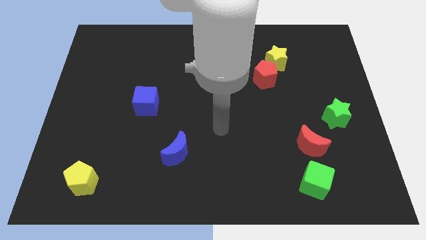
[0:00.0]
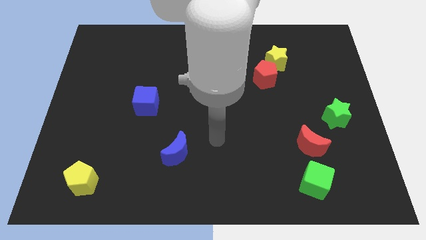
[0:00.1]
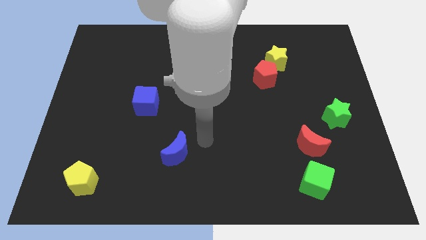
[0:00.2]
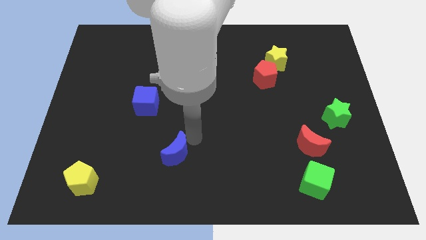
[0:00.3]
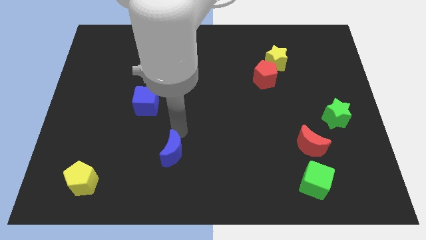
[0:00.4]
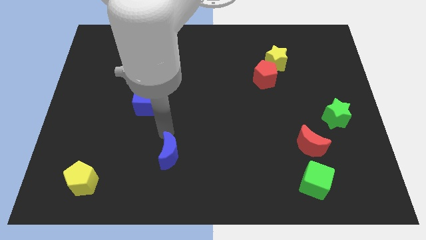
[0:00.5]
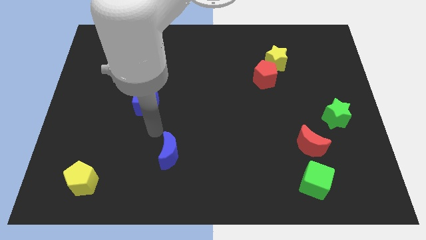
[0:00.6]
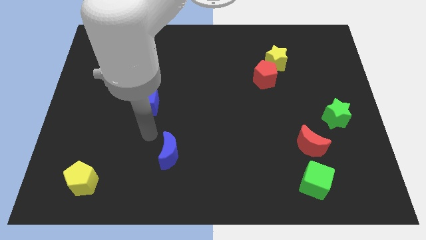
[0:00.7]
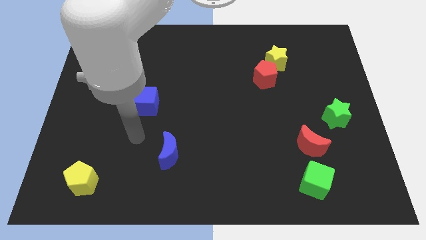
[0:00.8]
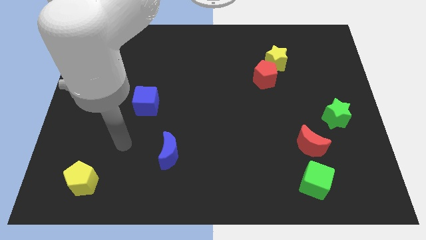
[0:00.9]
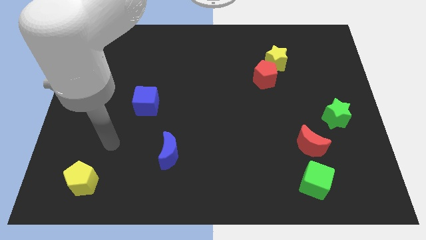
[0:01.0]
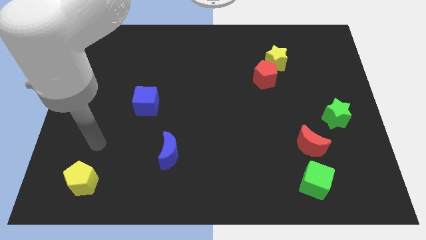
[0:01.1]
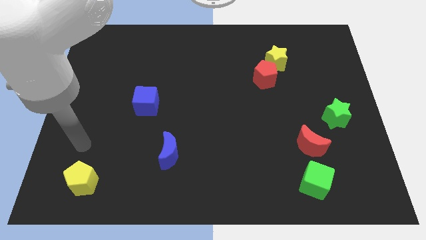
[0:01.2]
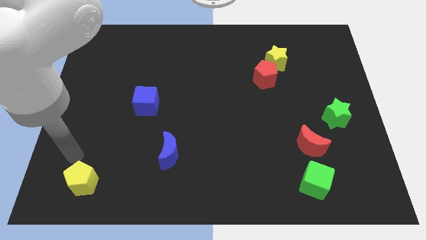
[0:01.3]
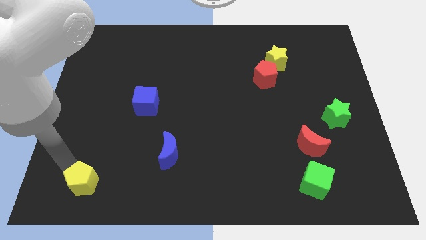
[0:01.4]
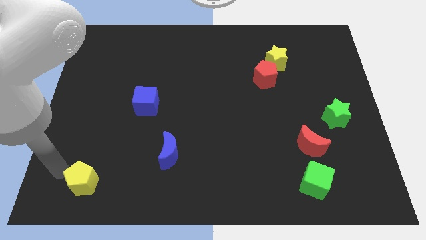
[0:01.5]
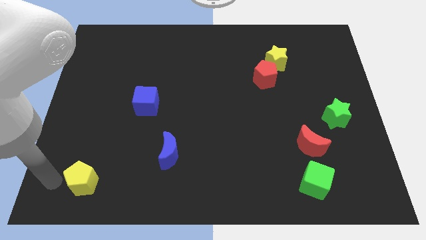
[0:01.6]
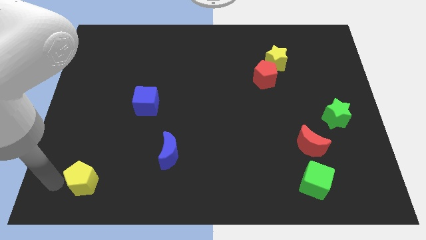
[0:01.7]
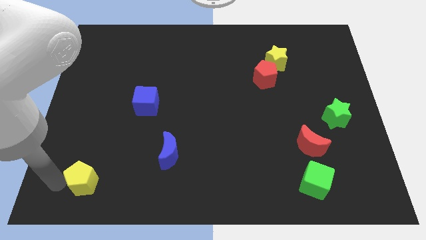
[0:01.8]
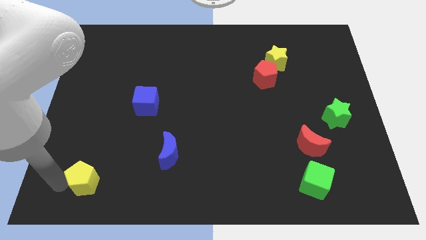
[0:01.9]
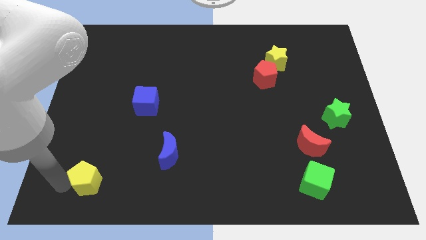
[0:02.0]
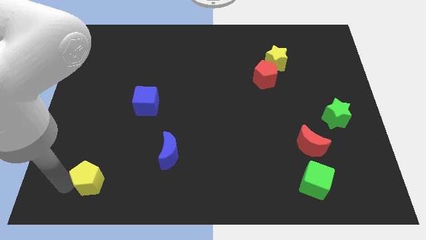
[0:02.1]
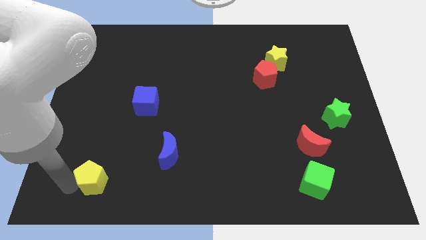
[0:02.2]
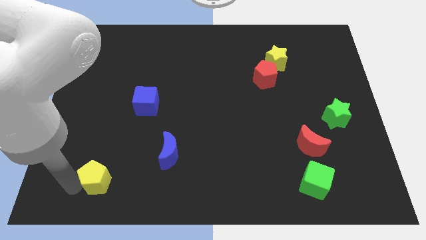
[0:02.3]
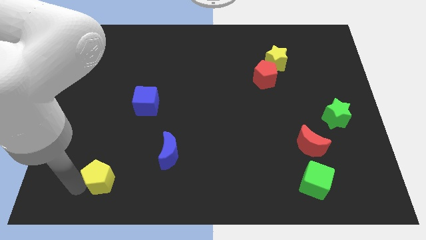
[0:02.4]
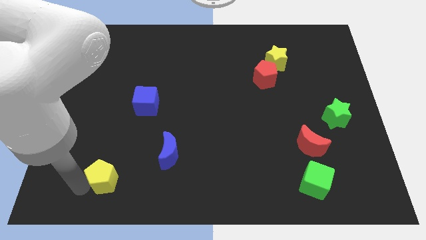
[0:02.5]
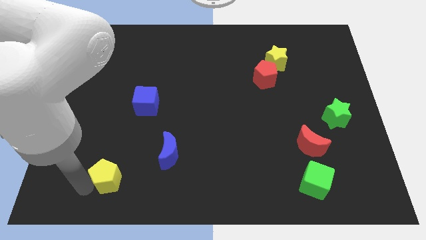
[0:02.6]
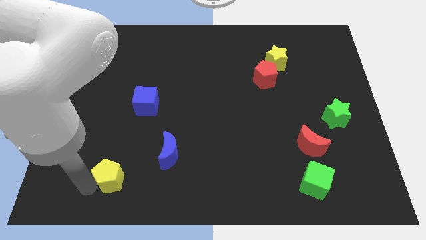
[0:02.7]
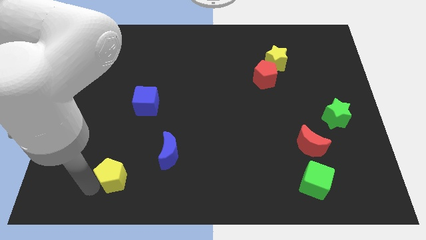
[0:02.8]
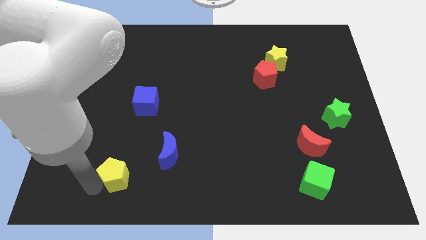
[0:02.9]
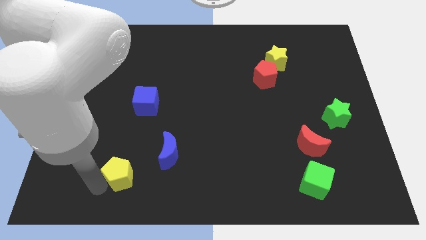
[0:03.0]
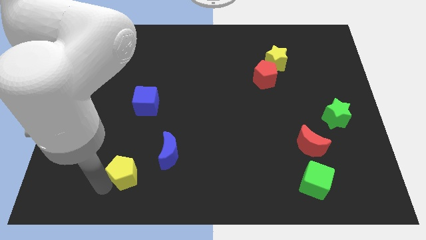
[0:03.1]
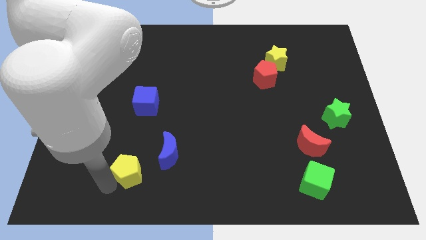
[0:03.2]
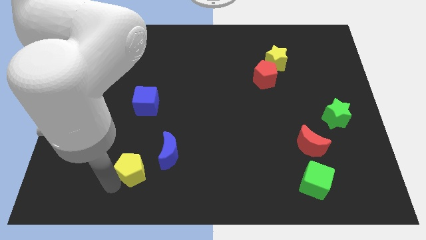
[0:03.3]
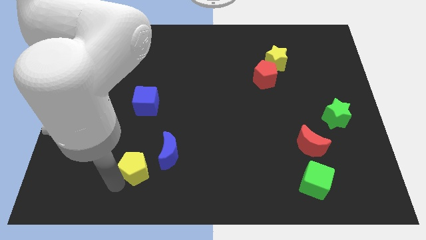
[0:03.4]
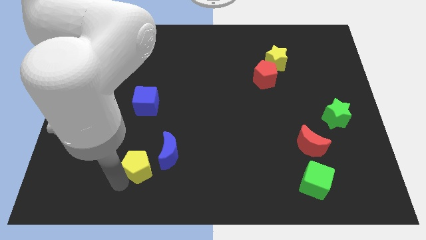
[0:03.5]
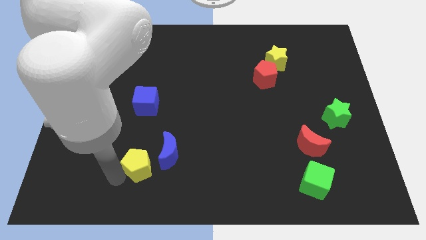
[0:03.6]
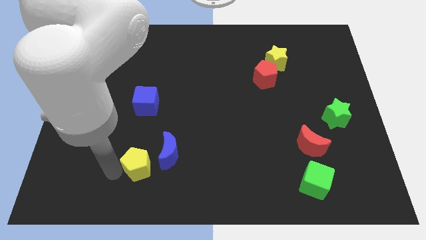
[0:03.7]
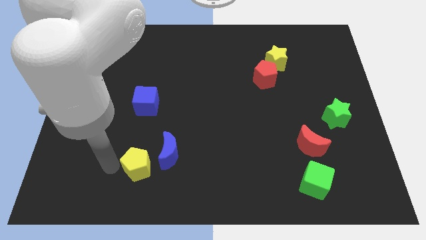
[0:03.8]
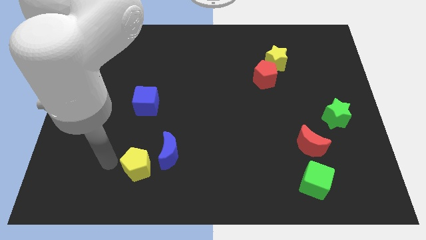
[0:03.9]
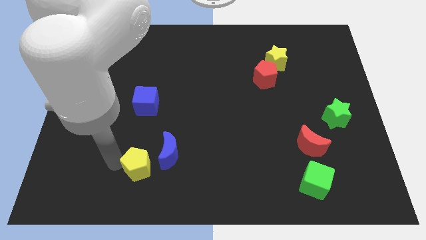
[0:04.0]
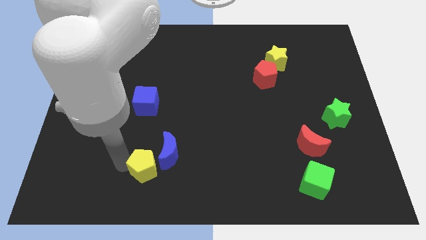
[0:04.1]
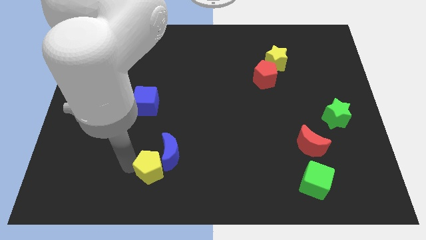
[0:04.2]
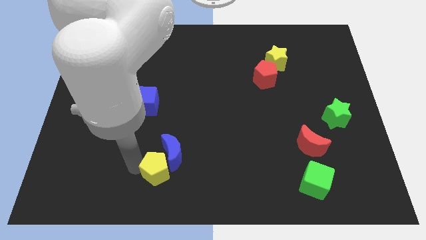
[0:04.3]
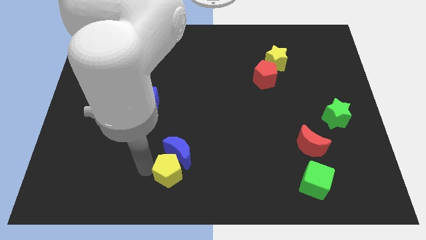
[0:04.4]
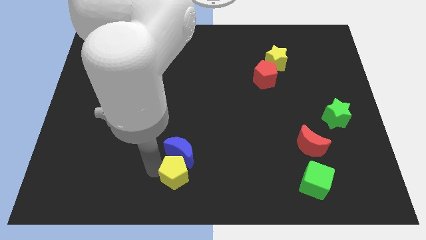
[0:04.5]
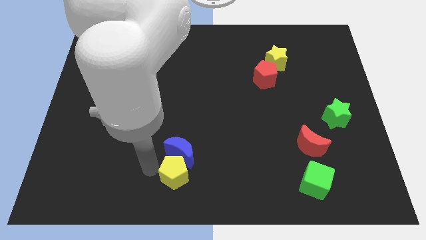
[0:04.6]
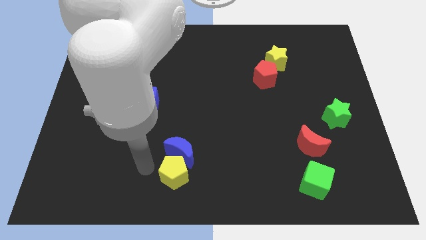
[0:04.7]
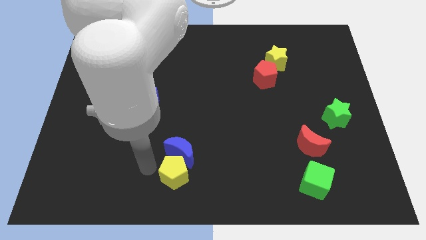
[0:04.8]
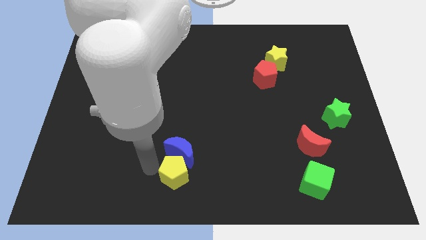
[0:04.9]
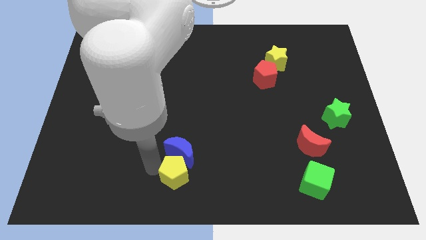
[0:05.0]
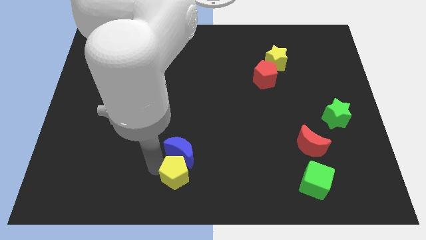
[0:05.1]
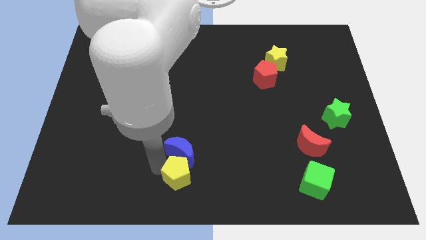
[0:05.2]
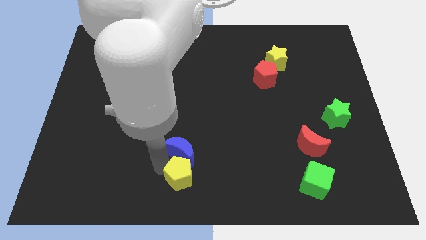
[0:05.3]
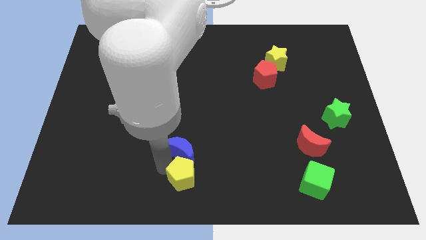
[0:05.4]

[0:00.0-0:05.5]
move the yellow pentagon to the right

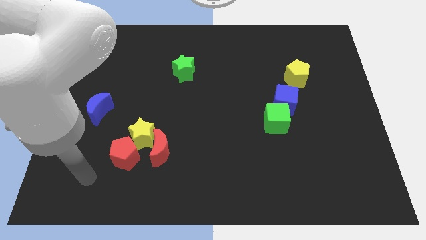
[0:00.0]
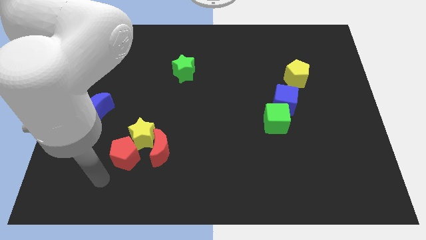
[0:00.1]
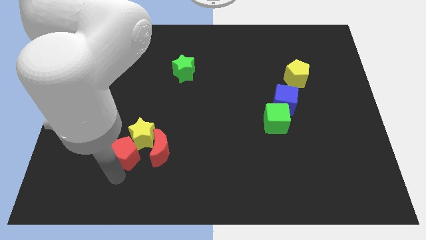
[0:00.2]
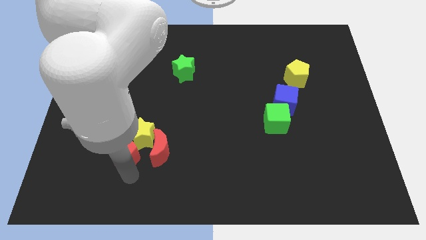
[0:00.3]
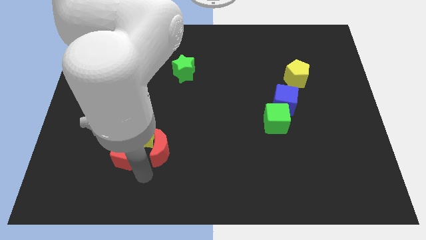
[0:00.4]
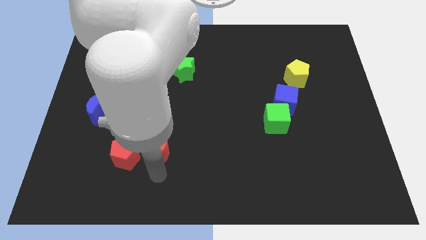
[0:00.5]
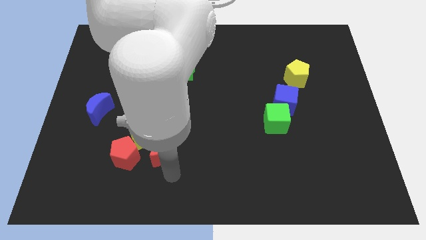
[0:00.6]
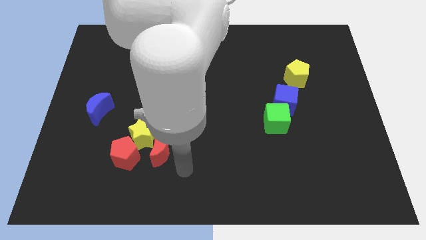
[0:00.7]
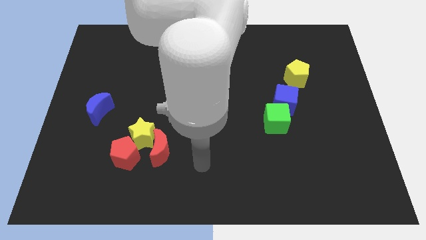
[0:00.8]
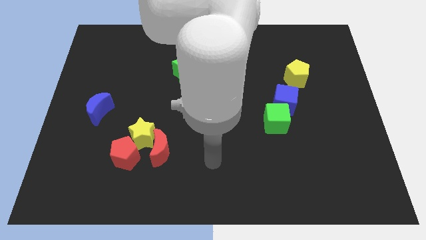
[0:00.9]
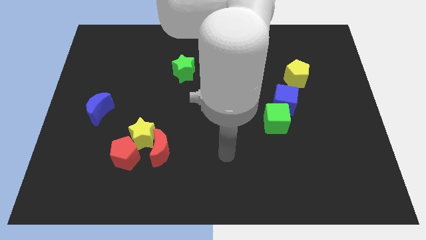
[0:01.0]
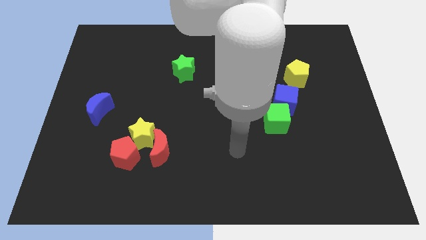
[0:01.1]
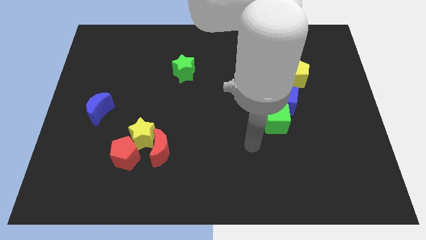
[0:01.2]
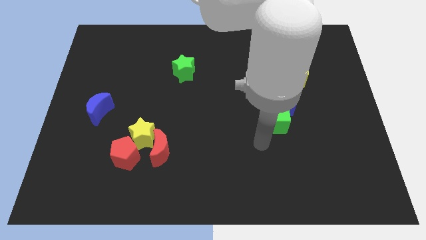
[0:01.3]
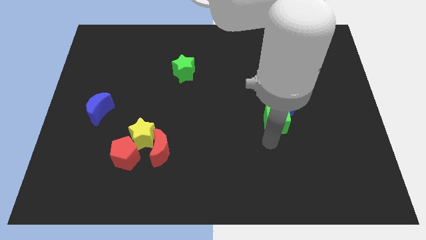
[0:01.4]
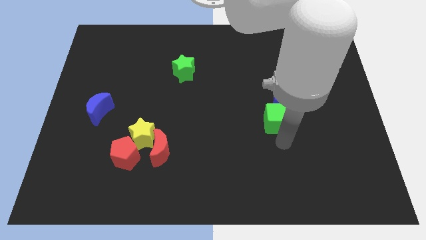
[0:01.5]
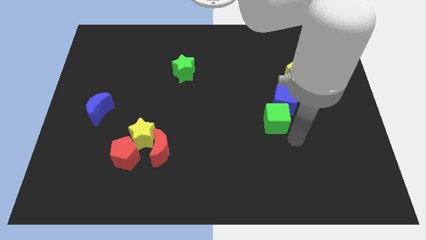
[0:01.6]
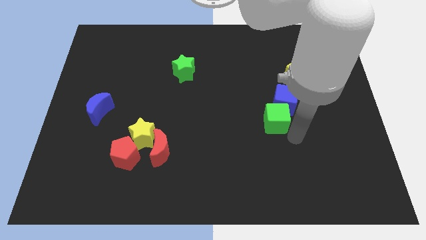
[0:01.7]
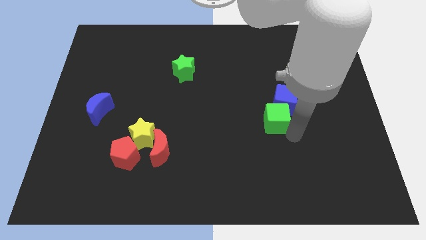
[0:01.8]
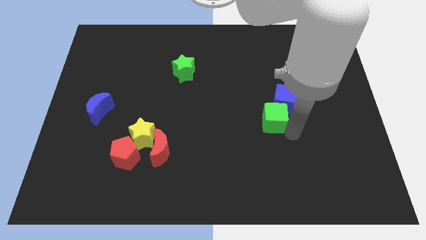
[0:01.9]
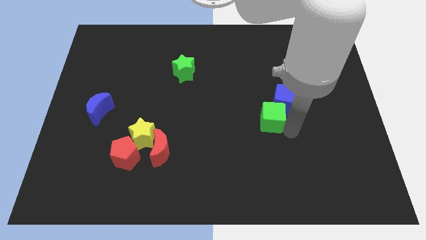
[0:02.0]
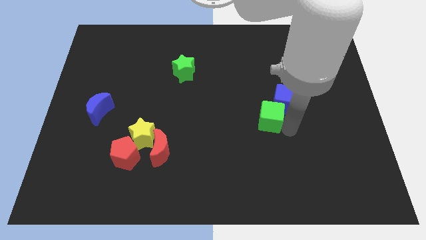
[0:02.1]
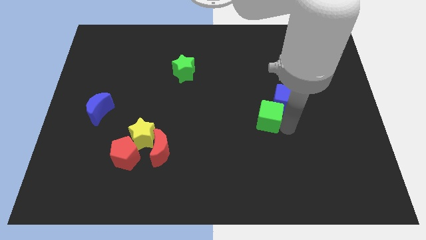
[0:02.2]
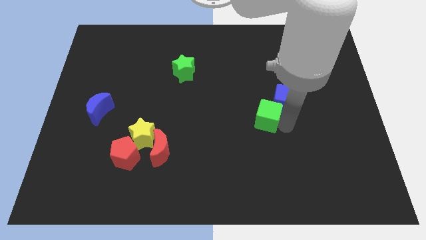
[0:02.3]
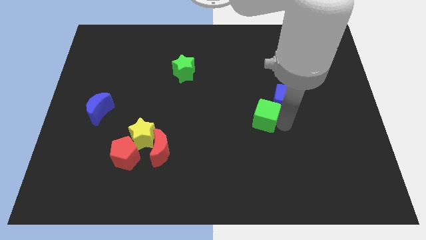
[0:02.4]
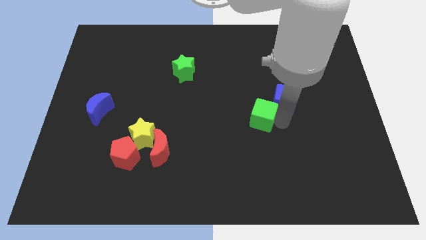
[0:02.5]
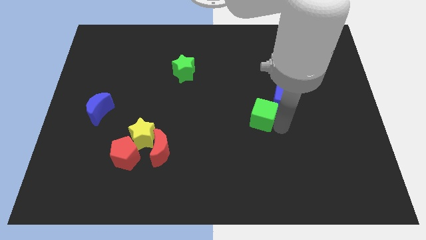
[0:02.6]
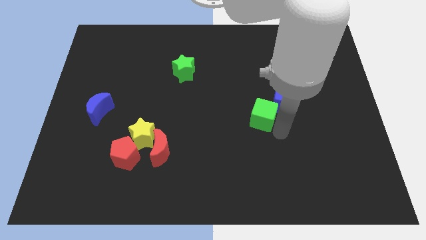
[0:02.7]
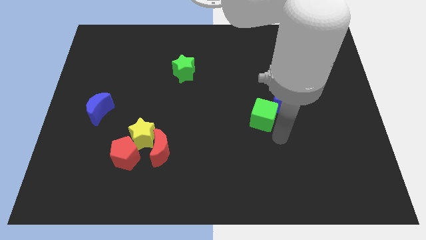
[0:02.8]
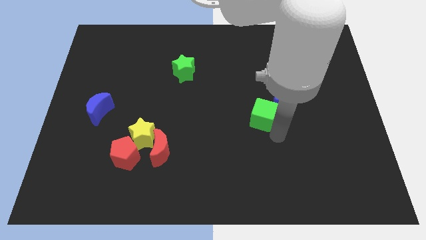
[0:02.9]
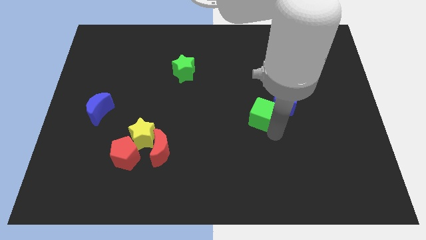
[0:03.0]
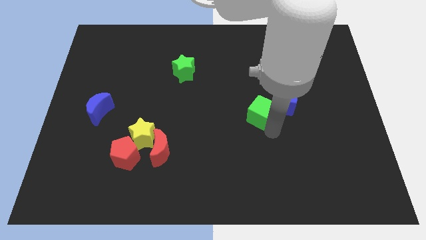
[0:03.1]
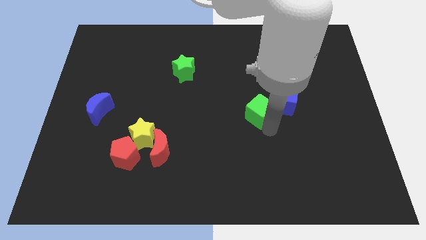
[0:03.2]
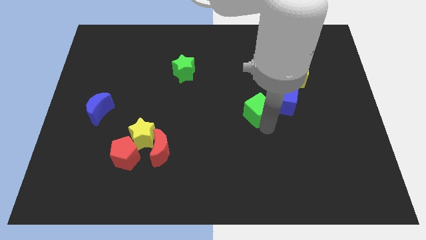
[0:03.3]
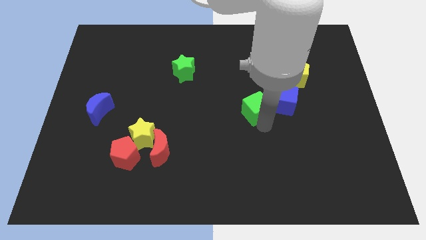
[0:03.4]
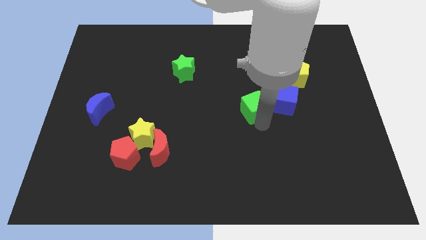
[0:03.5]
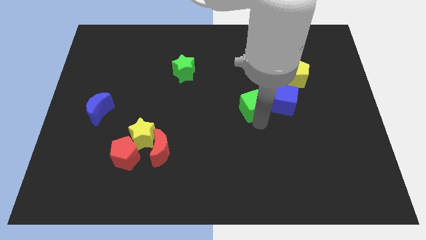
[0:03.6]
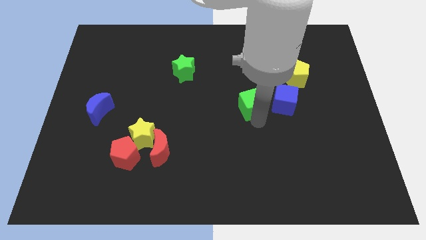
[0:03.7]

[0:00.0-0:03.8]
push the green cube upwards and to the left a little bit
